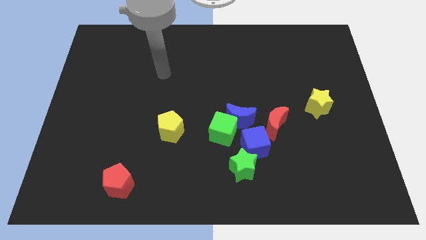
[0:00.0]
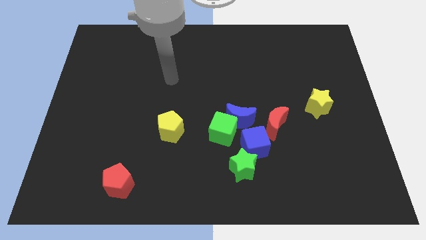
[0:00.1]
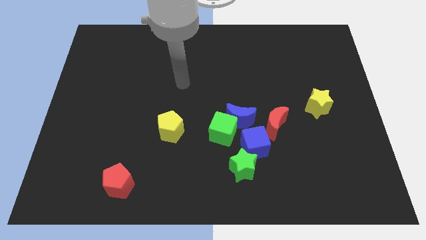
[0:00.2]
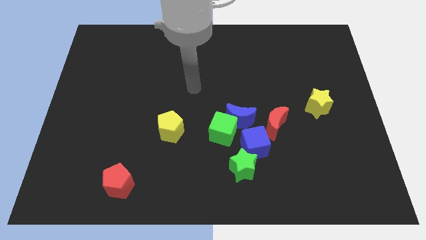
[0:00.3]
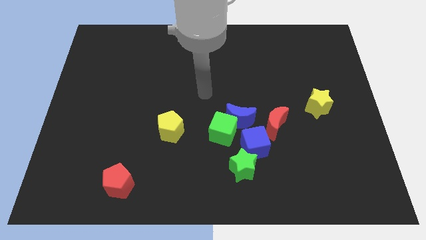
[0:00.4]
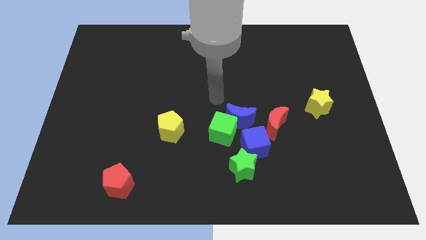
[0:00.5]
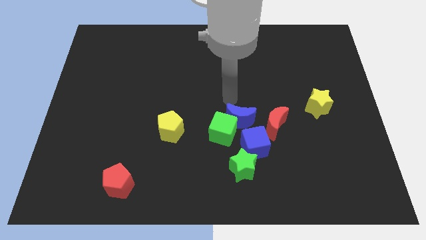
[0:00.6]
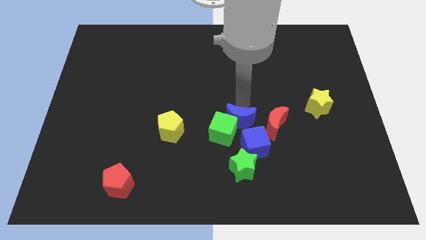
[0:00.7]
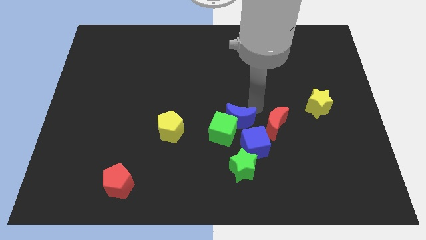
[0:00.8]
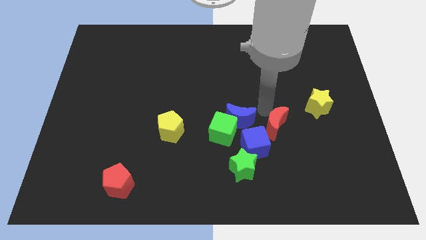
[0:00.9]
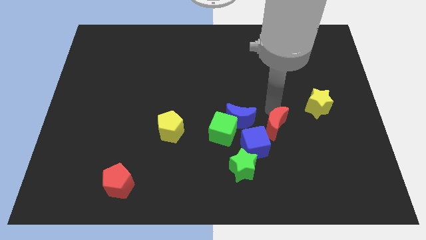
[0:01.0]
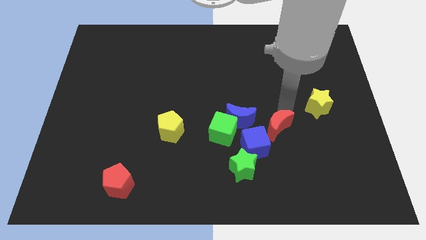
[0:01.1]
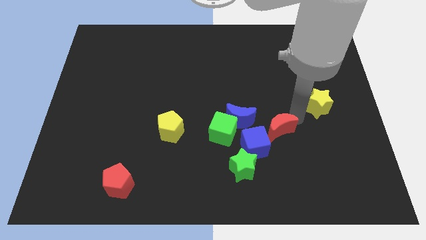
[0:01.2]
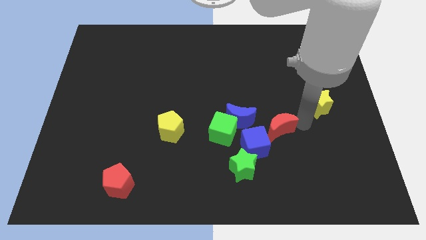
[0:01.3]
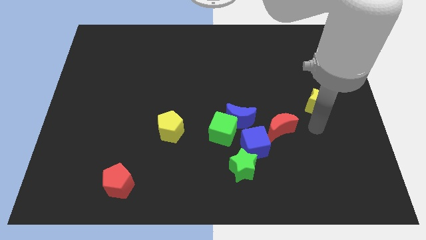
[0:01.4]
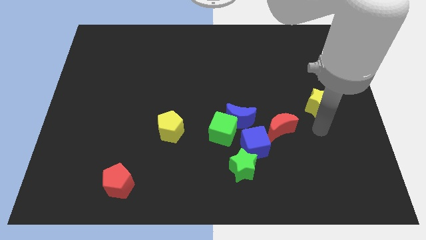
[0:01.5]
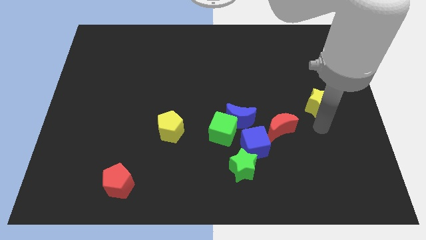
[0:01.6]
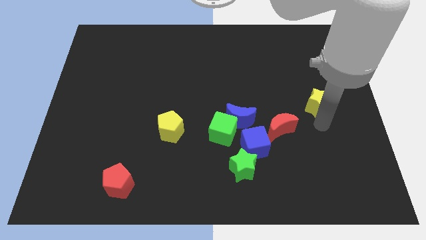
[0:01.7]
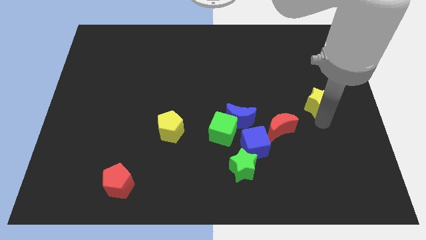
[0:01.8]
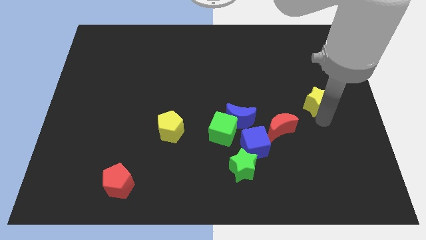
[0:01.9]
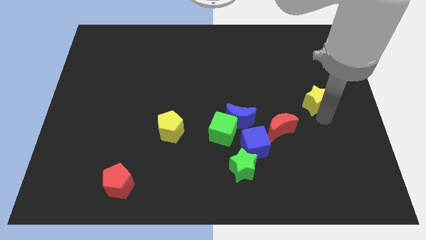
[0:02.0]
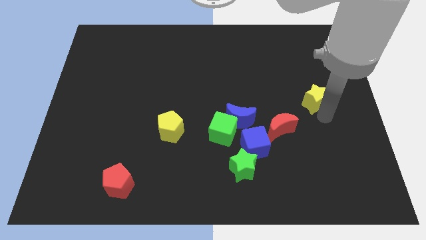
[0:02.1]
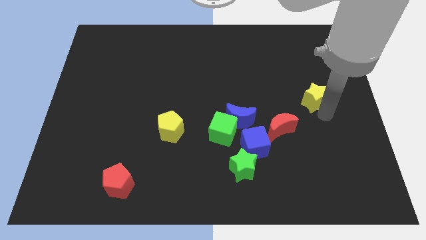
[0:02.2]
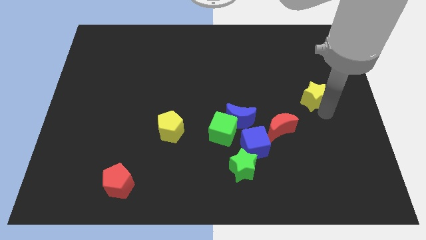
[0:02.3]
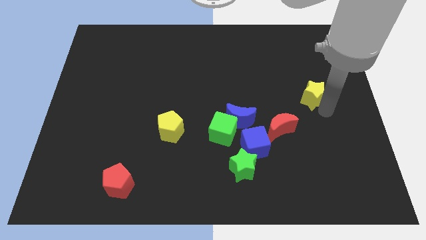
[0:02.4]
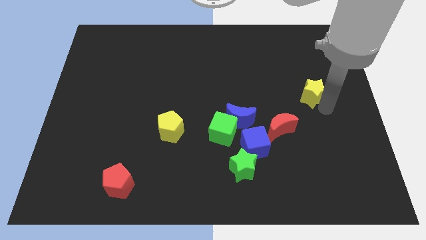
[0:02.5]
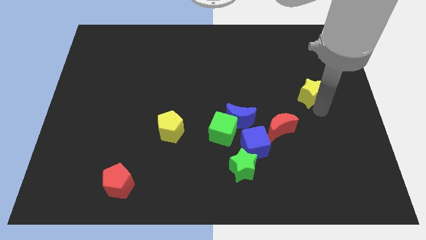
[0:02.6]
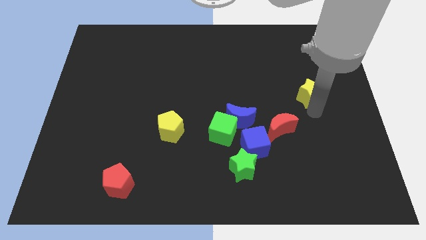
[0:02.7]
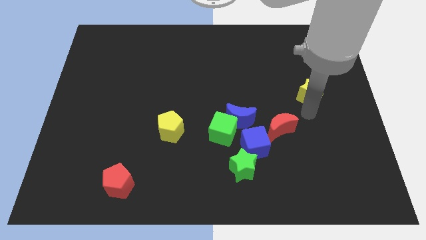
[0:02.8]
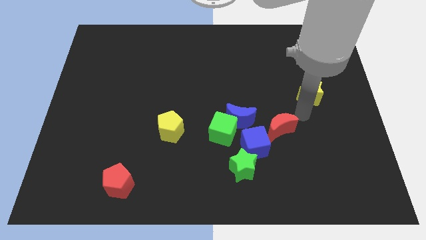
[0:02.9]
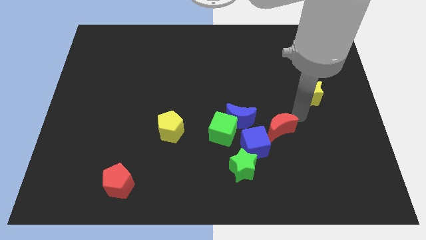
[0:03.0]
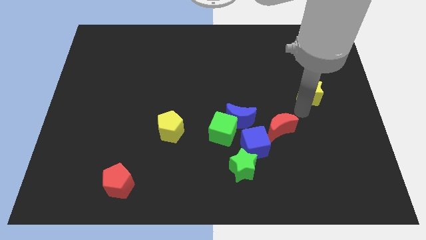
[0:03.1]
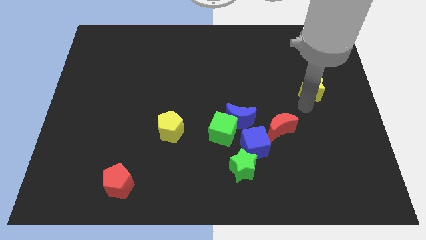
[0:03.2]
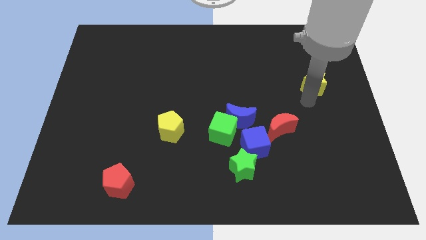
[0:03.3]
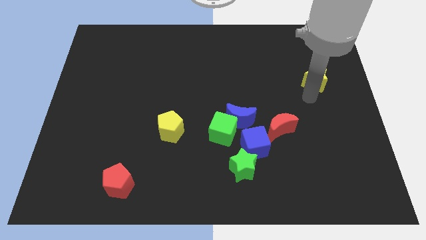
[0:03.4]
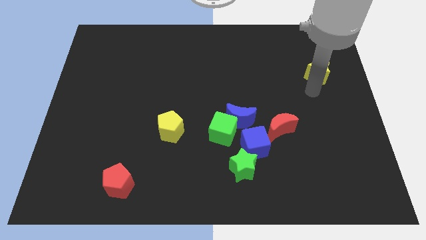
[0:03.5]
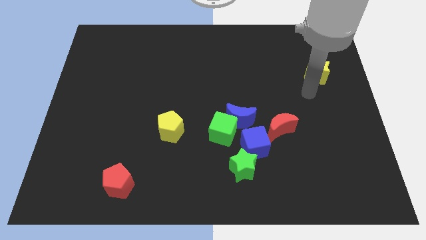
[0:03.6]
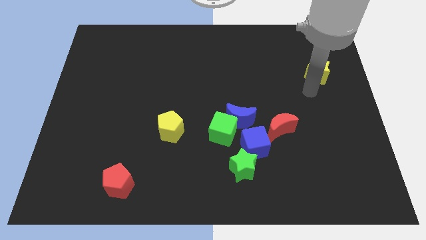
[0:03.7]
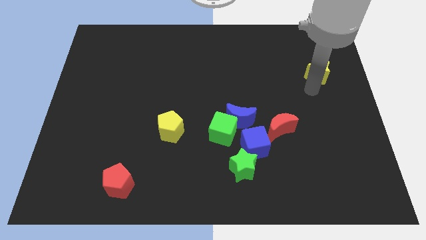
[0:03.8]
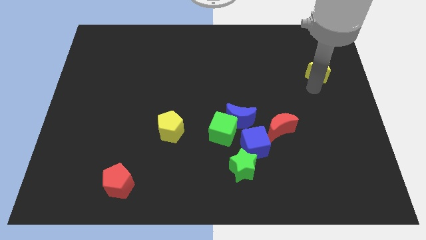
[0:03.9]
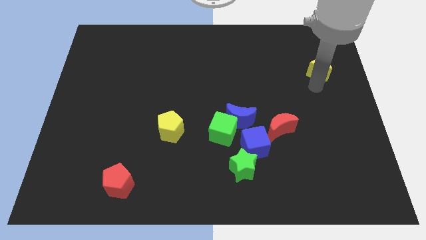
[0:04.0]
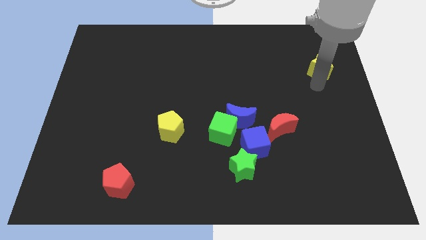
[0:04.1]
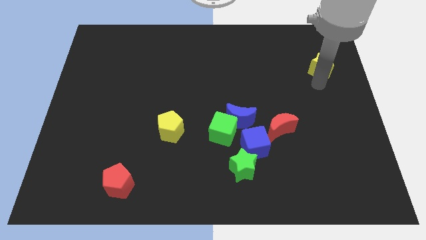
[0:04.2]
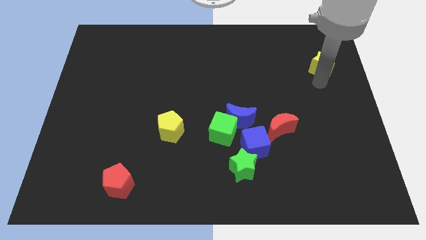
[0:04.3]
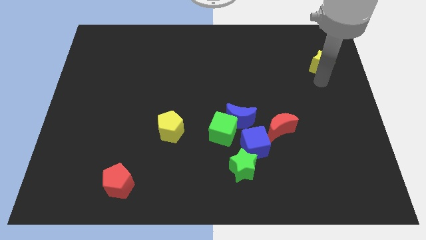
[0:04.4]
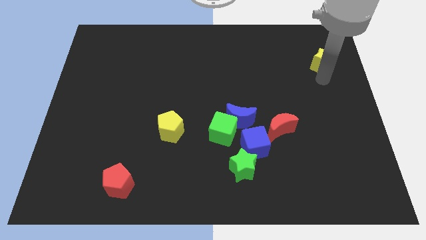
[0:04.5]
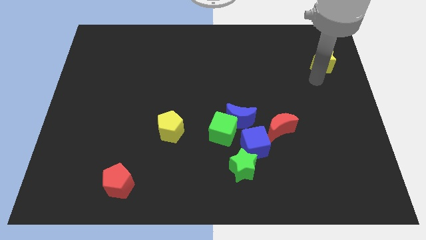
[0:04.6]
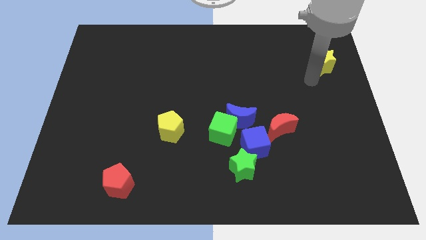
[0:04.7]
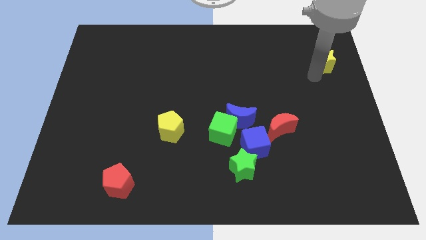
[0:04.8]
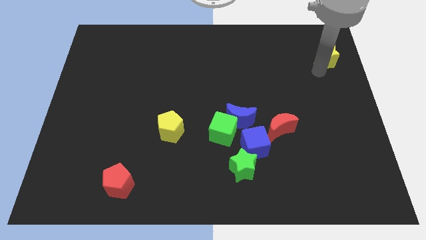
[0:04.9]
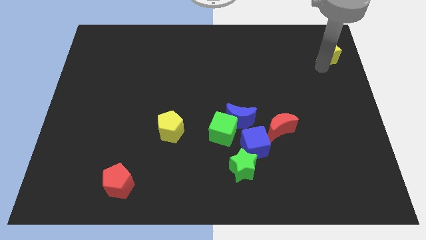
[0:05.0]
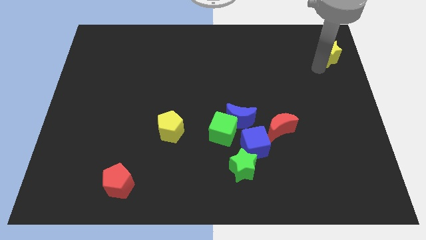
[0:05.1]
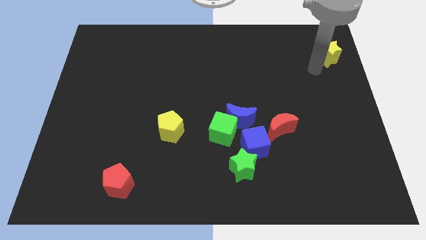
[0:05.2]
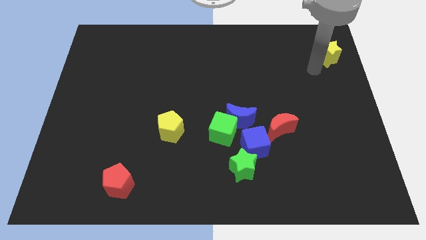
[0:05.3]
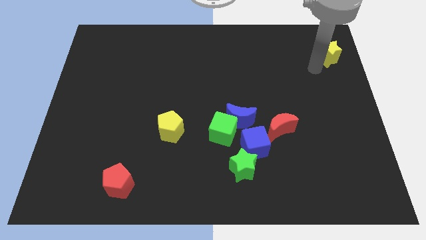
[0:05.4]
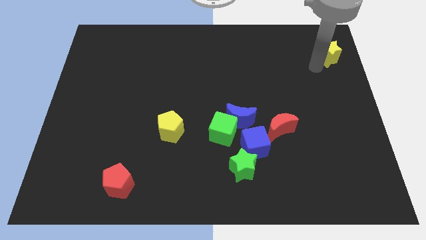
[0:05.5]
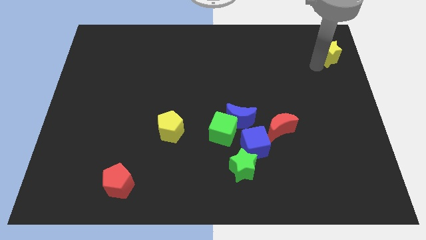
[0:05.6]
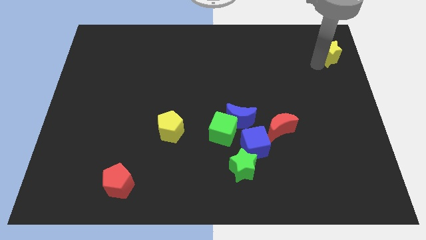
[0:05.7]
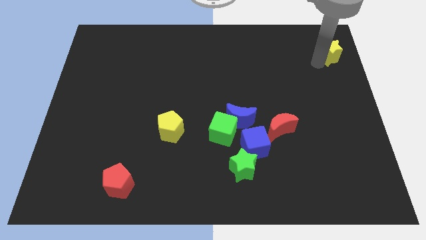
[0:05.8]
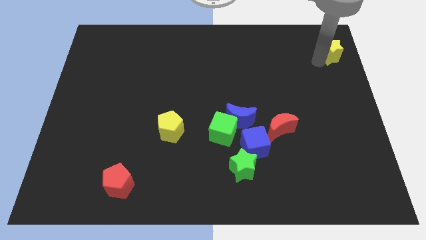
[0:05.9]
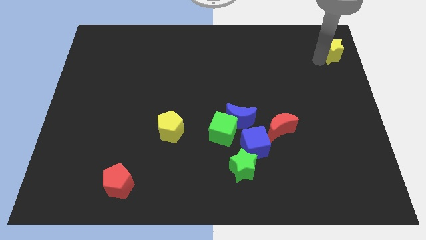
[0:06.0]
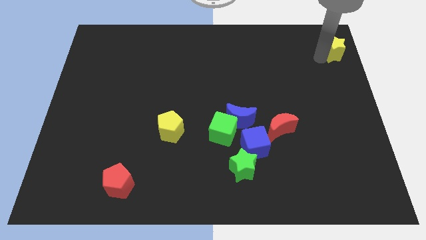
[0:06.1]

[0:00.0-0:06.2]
move the yellow star to the top right

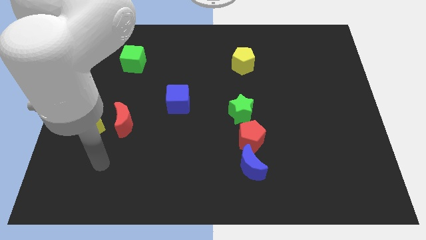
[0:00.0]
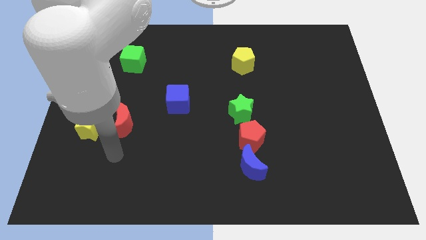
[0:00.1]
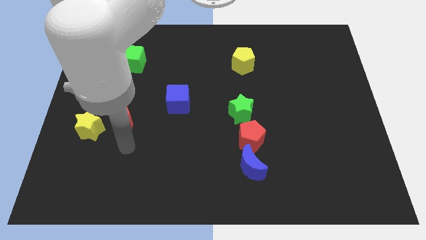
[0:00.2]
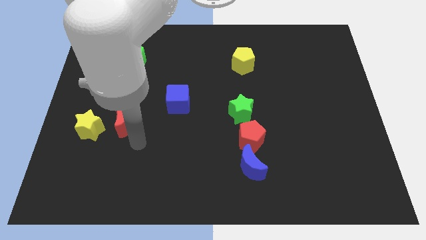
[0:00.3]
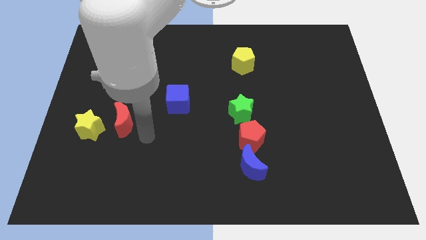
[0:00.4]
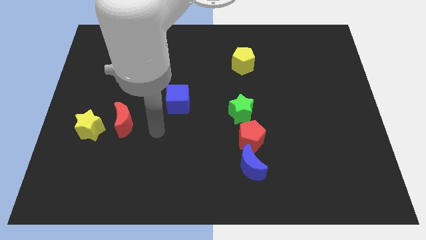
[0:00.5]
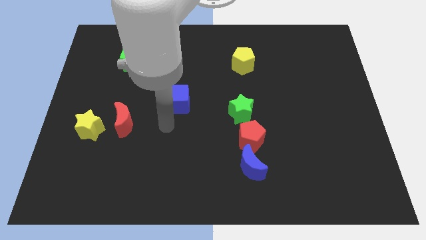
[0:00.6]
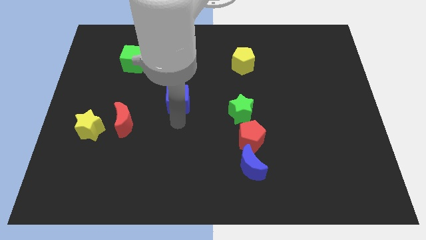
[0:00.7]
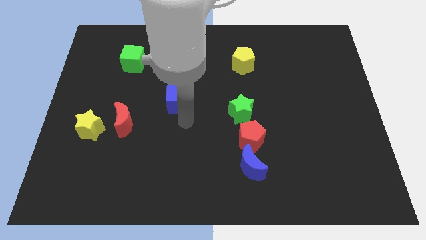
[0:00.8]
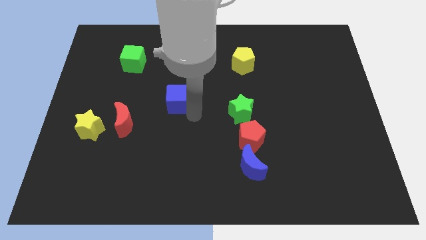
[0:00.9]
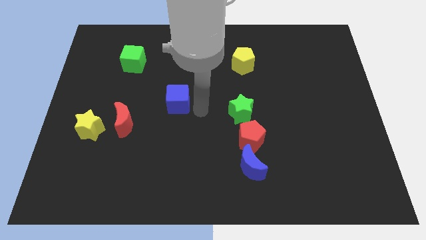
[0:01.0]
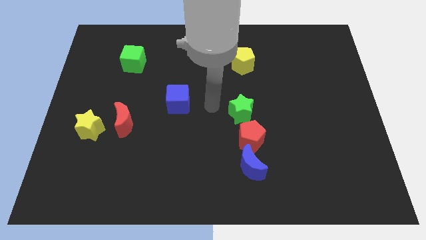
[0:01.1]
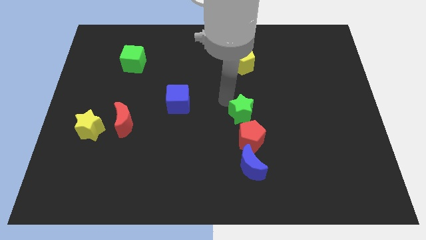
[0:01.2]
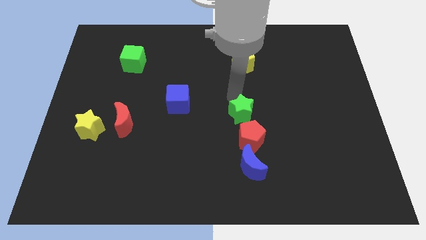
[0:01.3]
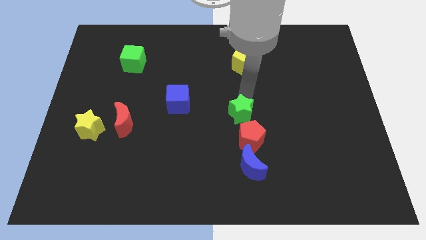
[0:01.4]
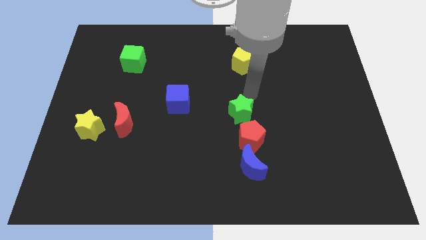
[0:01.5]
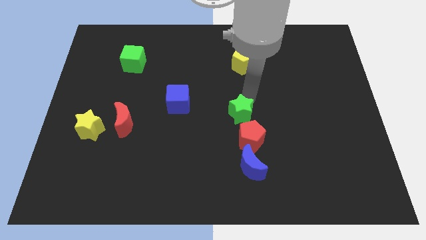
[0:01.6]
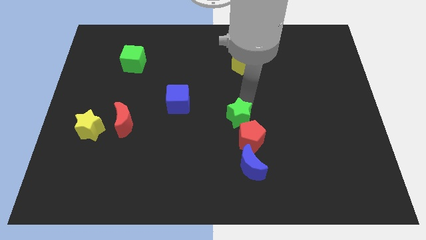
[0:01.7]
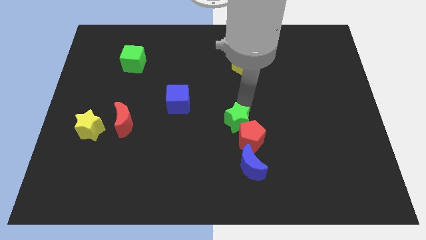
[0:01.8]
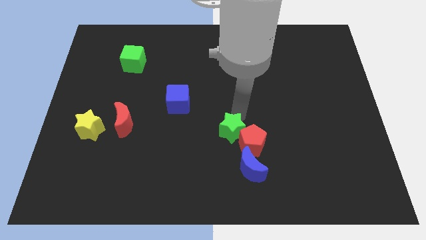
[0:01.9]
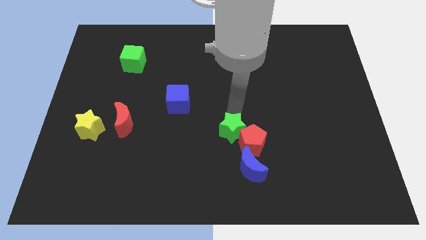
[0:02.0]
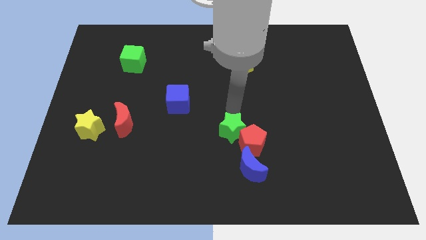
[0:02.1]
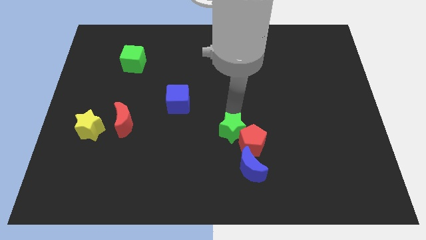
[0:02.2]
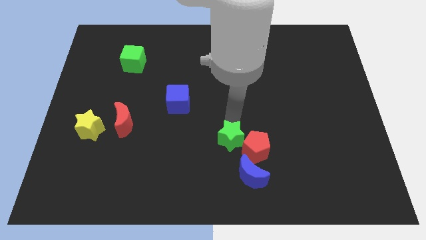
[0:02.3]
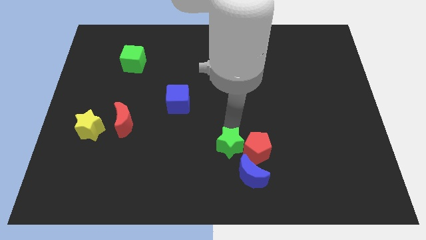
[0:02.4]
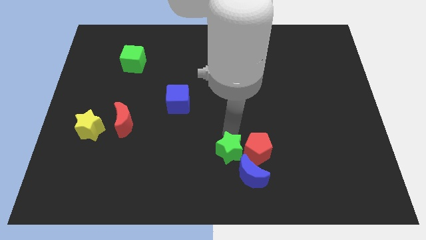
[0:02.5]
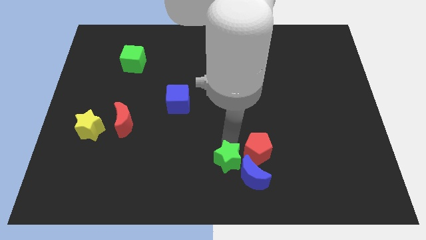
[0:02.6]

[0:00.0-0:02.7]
move the green star to the bottom side
